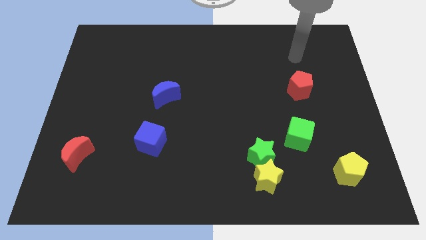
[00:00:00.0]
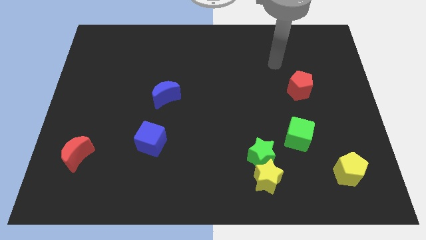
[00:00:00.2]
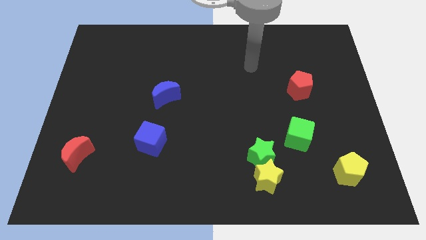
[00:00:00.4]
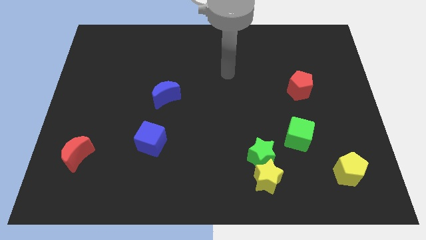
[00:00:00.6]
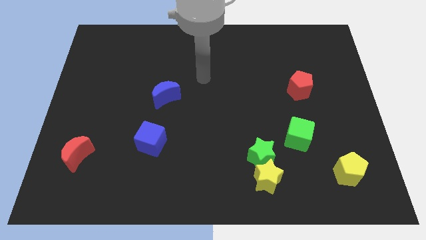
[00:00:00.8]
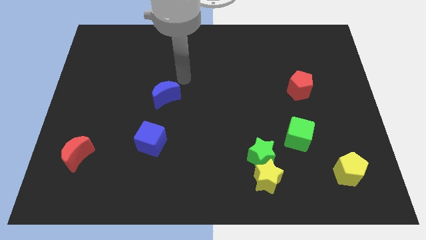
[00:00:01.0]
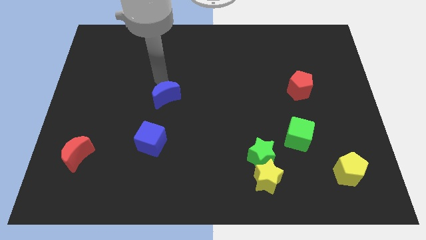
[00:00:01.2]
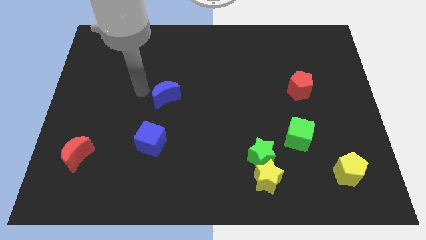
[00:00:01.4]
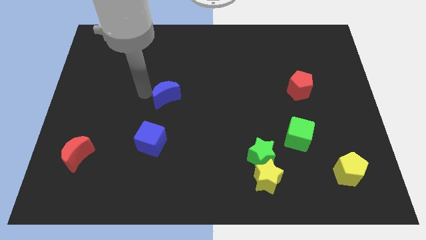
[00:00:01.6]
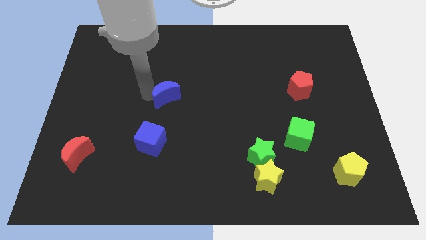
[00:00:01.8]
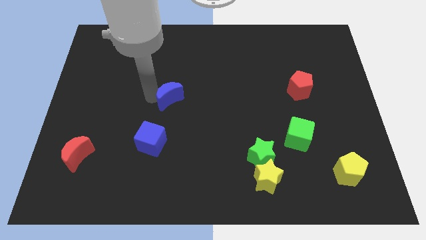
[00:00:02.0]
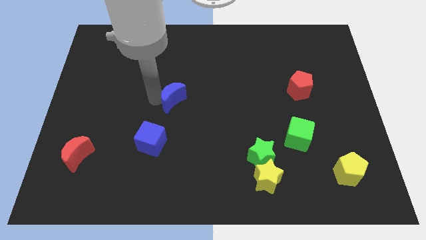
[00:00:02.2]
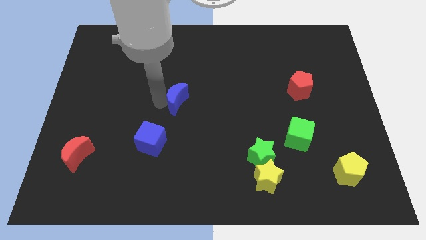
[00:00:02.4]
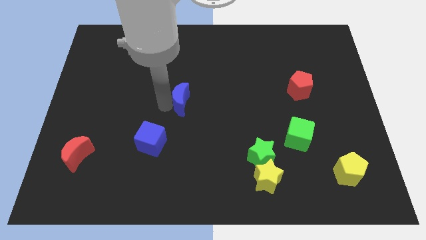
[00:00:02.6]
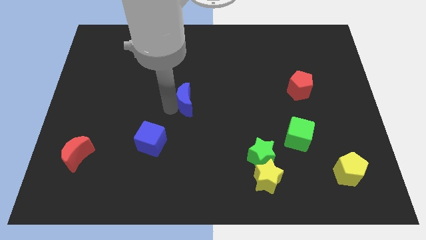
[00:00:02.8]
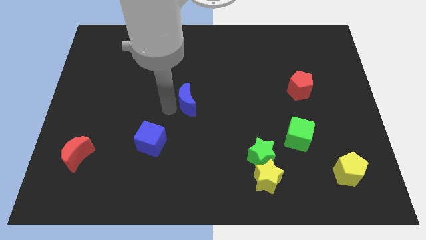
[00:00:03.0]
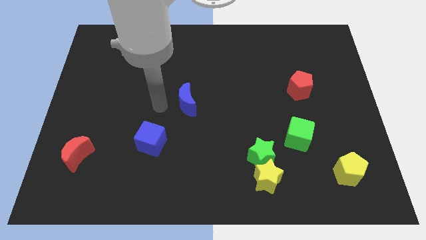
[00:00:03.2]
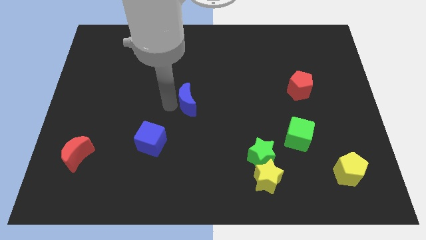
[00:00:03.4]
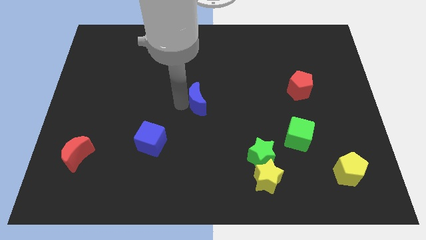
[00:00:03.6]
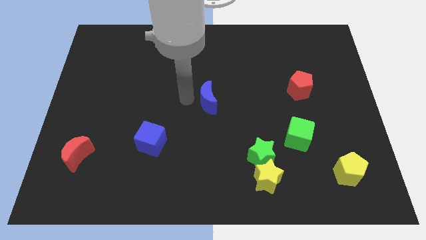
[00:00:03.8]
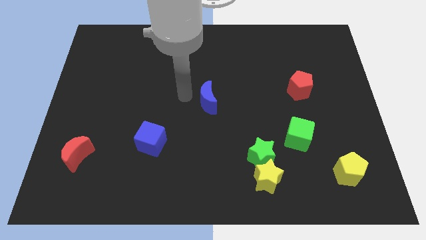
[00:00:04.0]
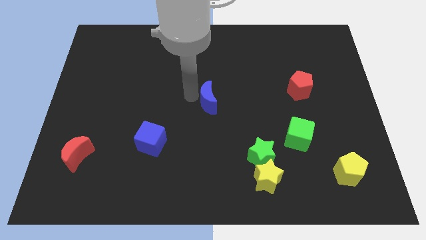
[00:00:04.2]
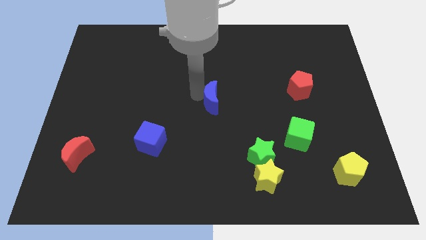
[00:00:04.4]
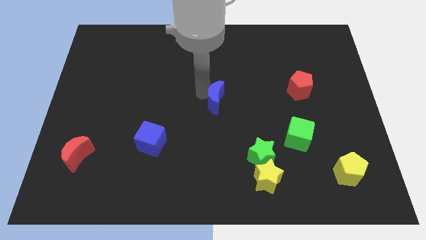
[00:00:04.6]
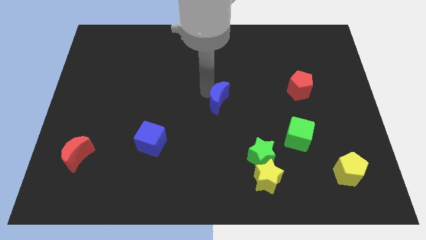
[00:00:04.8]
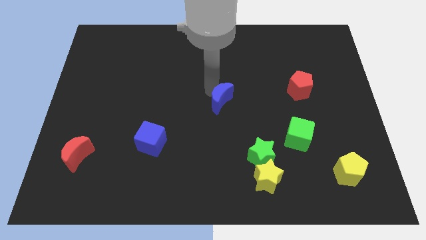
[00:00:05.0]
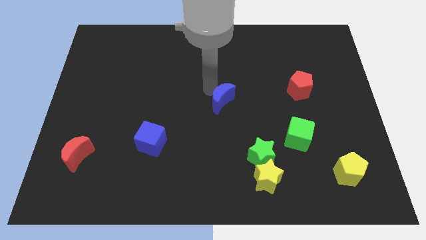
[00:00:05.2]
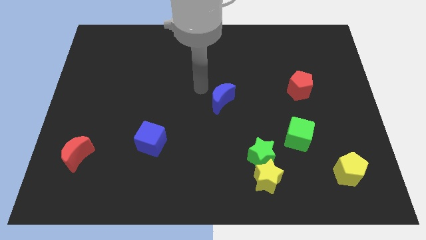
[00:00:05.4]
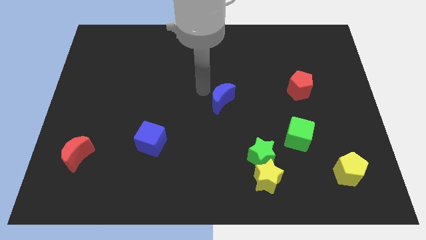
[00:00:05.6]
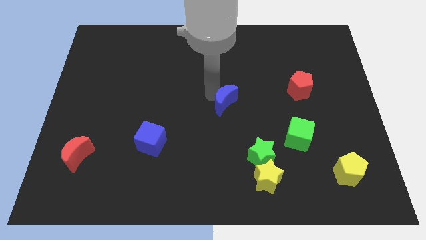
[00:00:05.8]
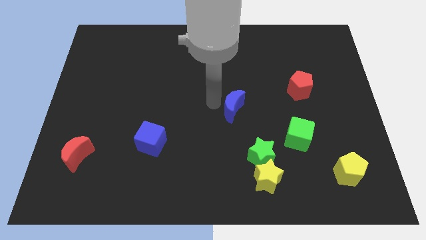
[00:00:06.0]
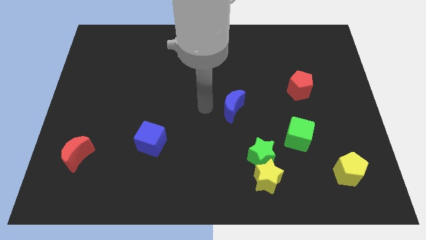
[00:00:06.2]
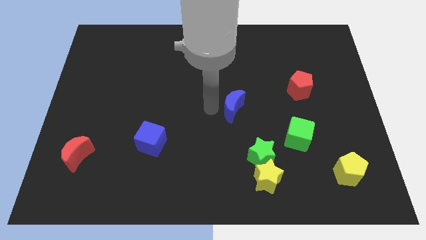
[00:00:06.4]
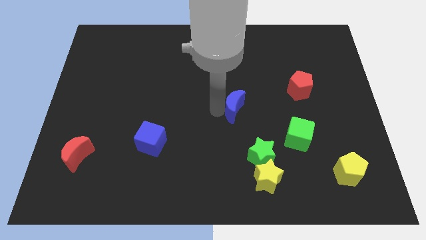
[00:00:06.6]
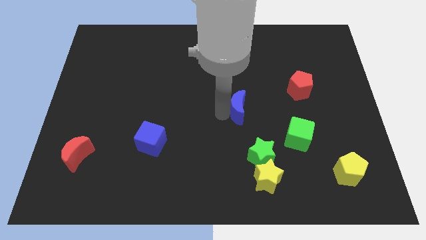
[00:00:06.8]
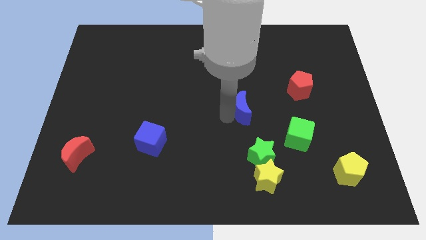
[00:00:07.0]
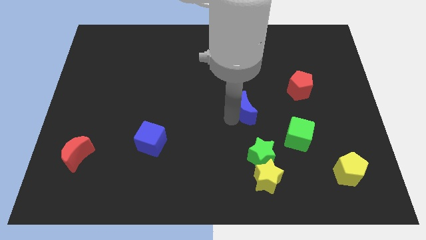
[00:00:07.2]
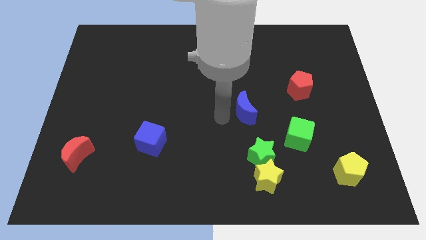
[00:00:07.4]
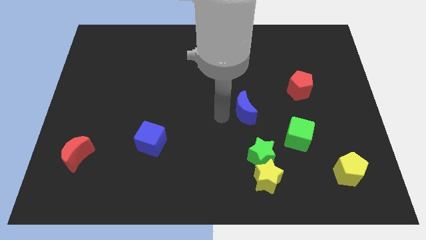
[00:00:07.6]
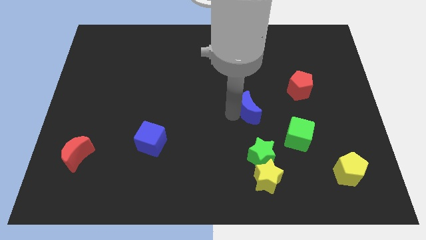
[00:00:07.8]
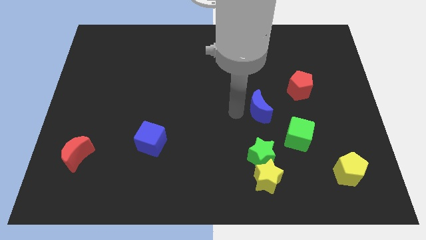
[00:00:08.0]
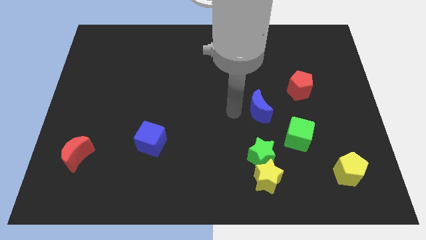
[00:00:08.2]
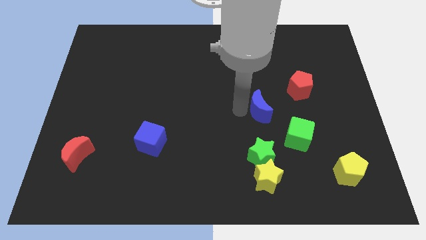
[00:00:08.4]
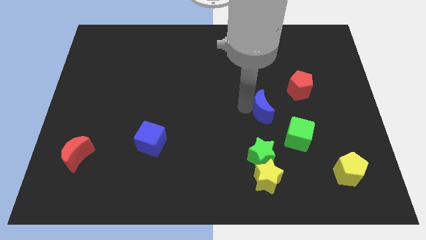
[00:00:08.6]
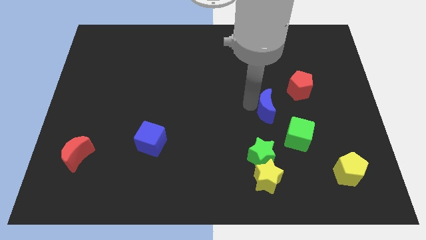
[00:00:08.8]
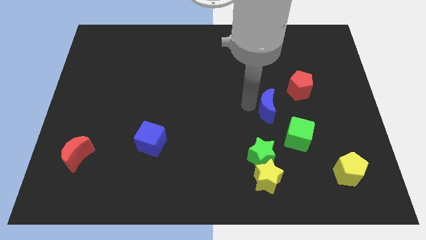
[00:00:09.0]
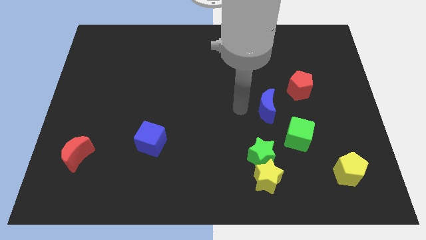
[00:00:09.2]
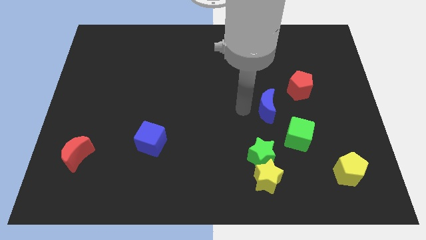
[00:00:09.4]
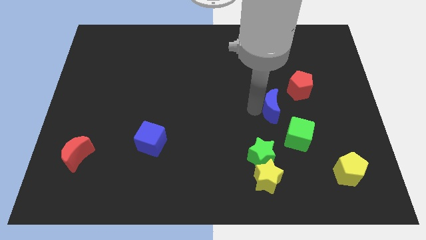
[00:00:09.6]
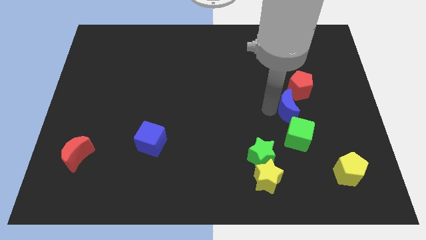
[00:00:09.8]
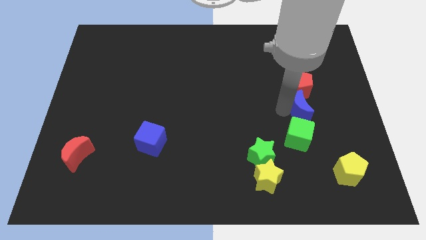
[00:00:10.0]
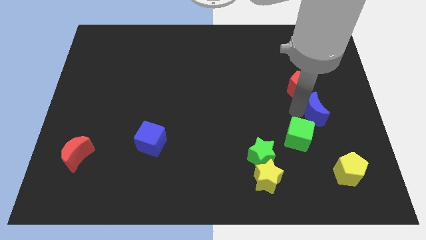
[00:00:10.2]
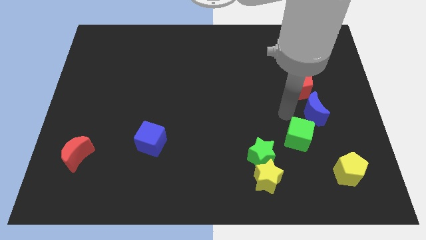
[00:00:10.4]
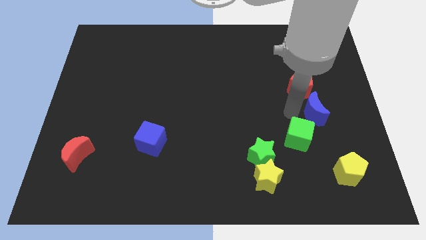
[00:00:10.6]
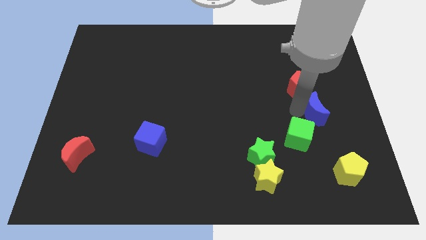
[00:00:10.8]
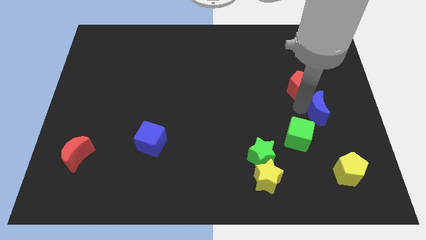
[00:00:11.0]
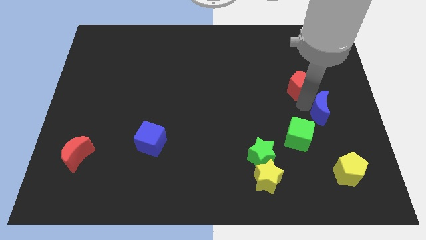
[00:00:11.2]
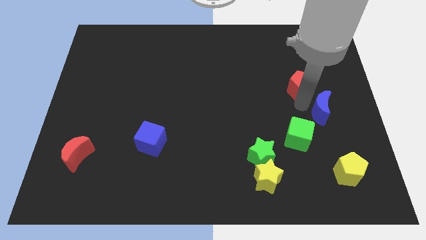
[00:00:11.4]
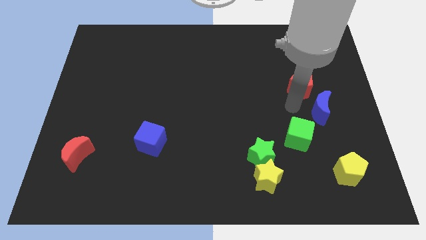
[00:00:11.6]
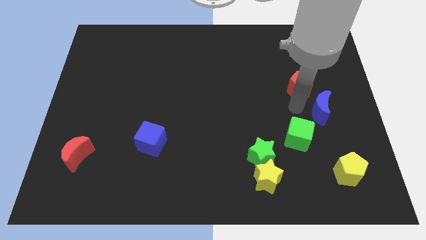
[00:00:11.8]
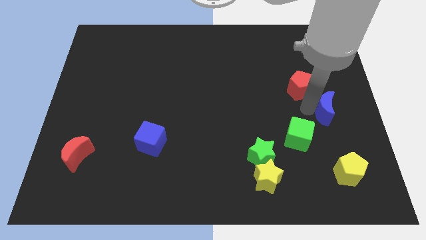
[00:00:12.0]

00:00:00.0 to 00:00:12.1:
put the blue moon to the right side of the board

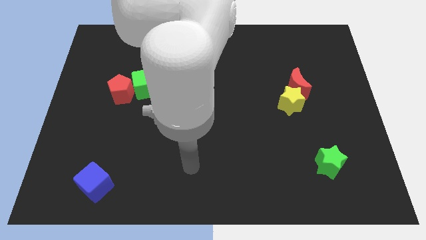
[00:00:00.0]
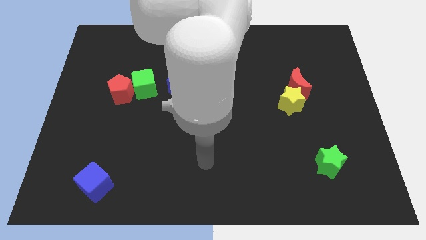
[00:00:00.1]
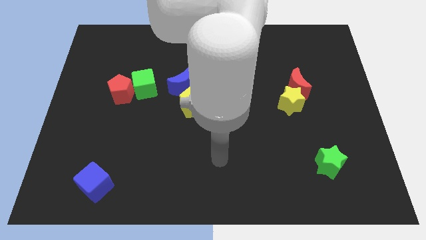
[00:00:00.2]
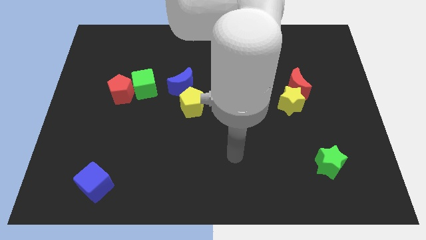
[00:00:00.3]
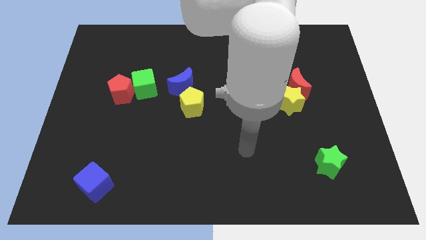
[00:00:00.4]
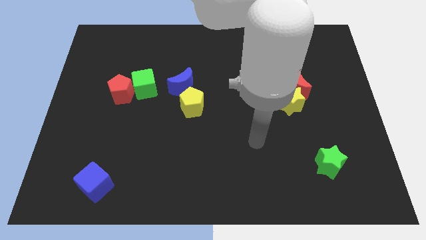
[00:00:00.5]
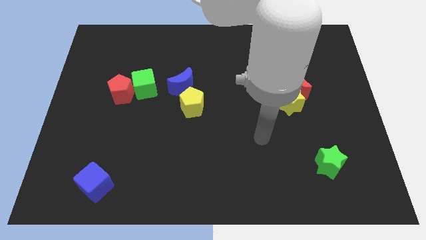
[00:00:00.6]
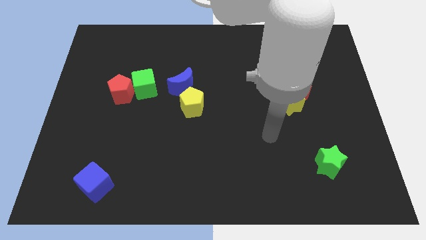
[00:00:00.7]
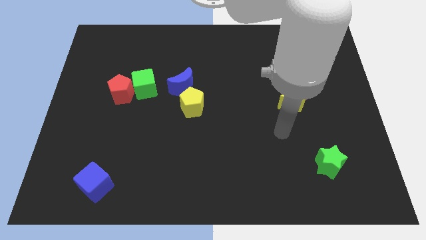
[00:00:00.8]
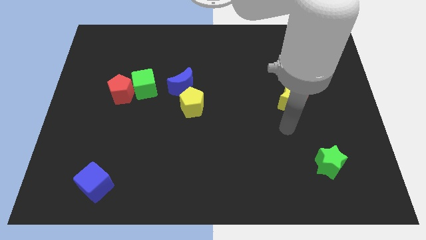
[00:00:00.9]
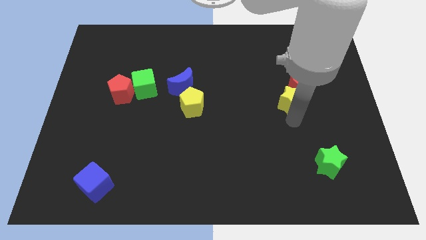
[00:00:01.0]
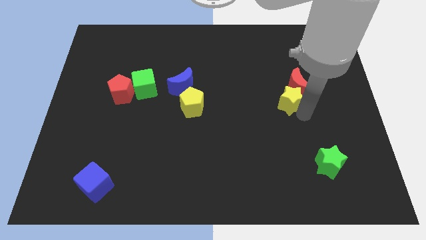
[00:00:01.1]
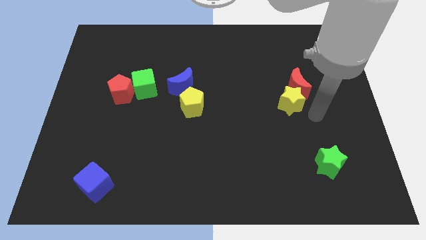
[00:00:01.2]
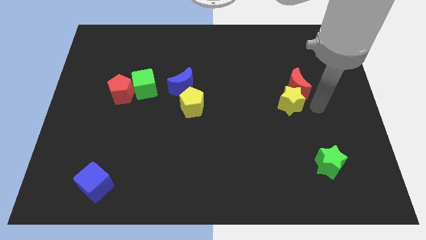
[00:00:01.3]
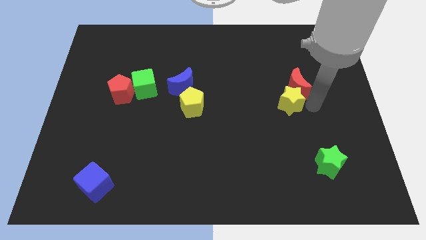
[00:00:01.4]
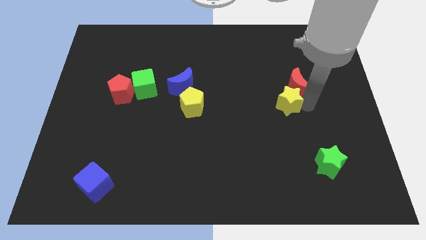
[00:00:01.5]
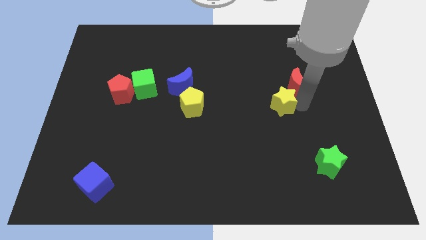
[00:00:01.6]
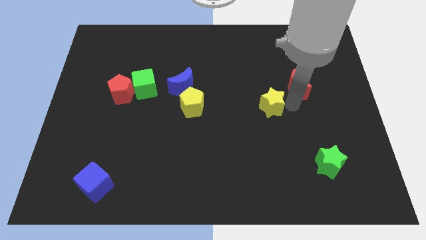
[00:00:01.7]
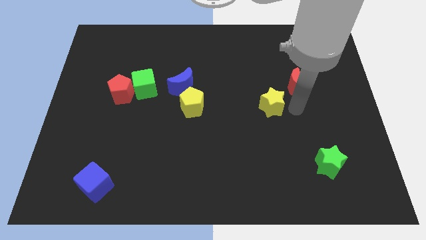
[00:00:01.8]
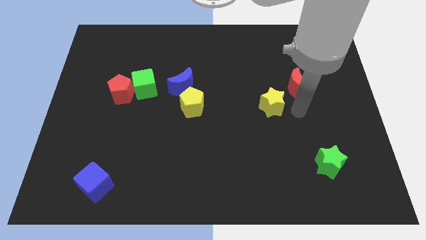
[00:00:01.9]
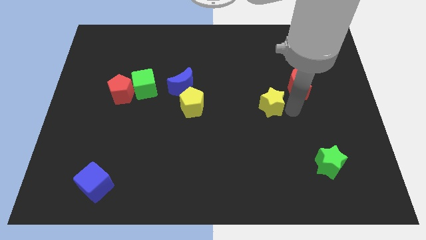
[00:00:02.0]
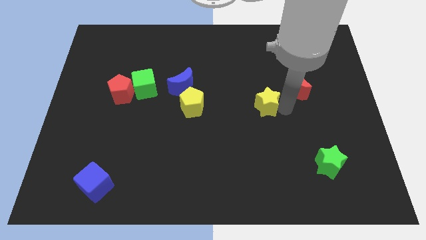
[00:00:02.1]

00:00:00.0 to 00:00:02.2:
put the yellow star to the middle of the board
